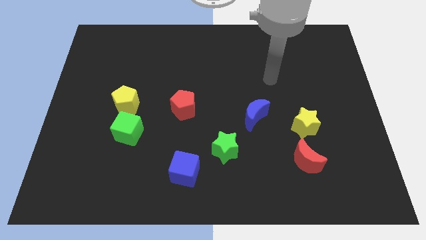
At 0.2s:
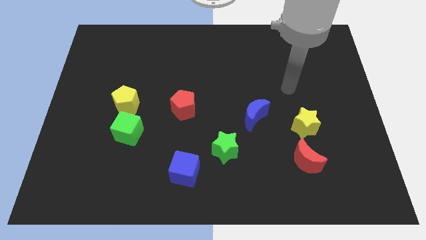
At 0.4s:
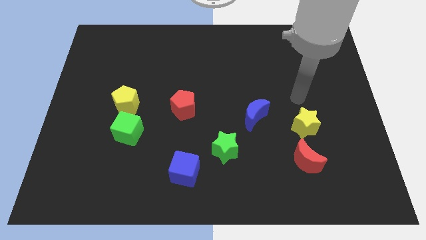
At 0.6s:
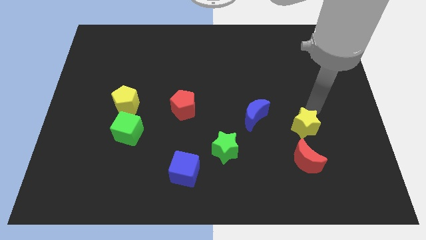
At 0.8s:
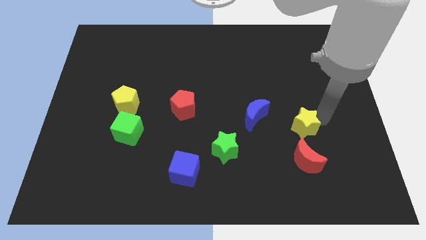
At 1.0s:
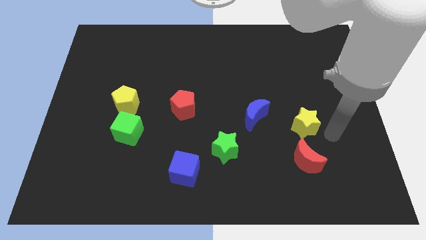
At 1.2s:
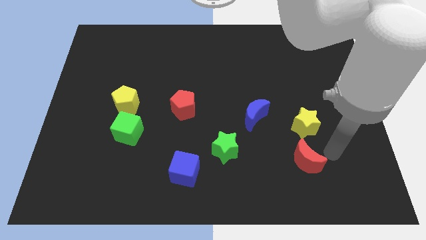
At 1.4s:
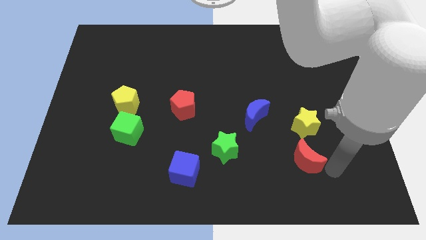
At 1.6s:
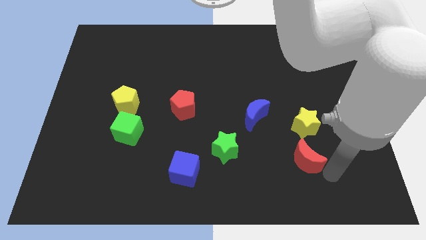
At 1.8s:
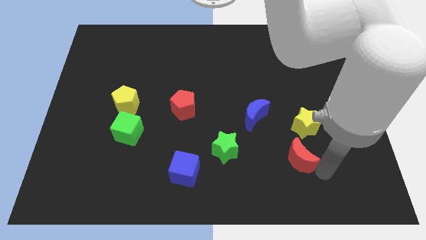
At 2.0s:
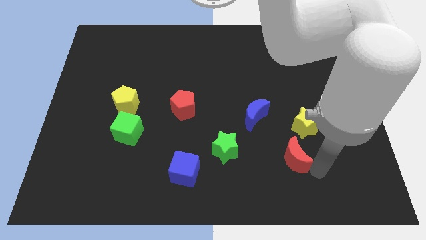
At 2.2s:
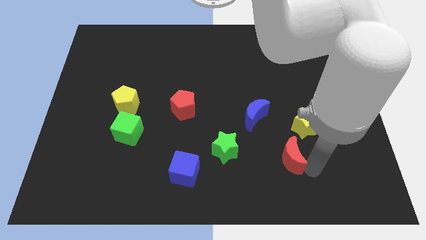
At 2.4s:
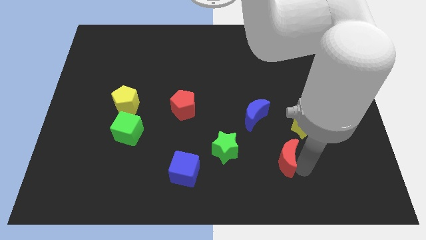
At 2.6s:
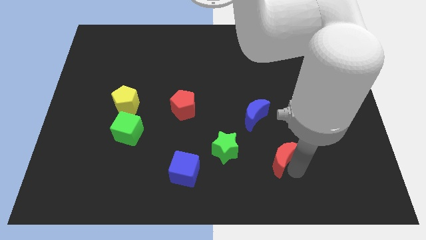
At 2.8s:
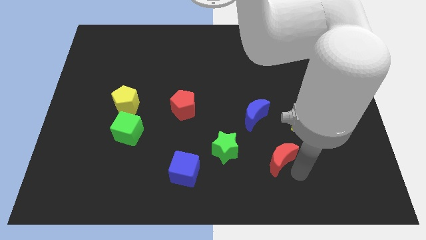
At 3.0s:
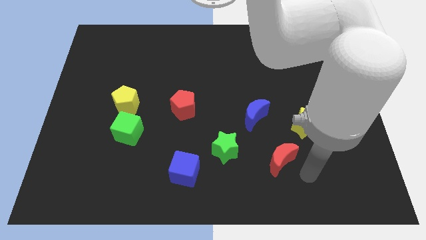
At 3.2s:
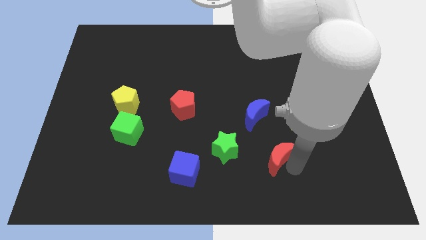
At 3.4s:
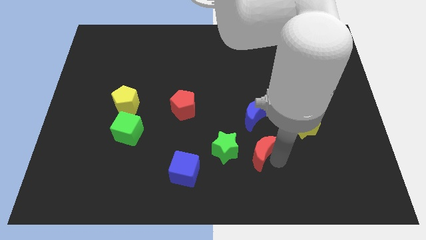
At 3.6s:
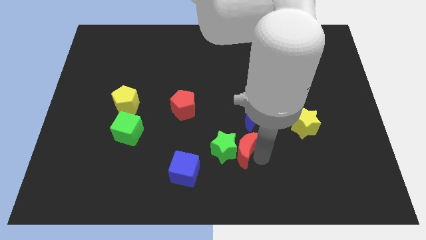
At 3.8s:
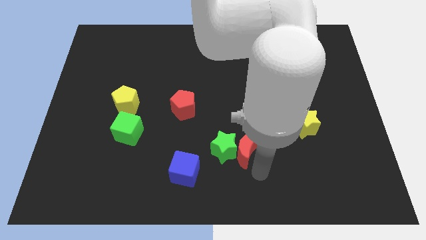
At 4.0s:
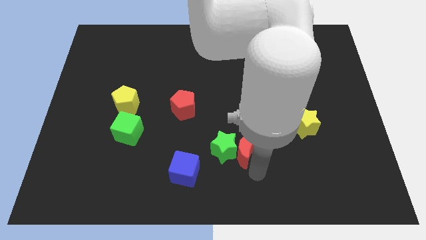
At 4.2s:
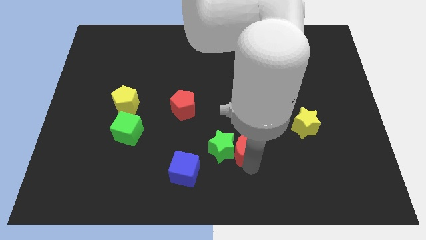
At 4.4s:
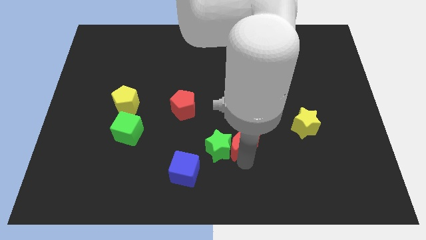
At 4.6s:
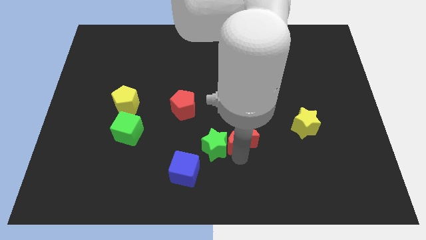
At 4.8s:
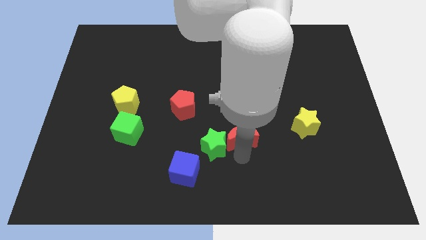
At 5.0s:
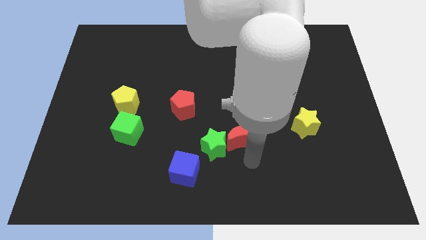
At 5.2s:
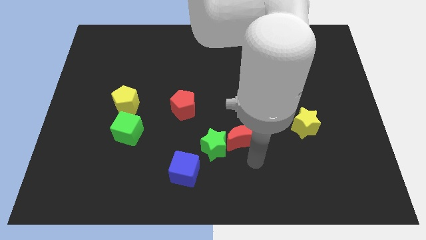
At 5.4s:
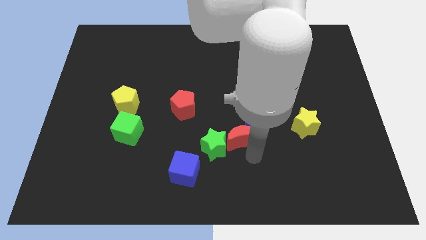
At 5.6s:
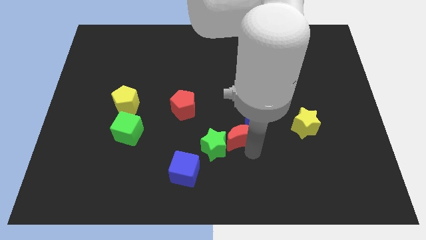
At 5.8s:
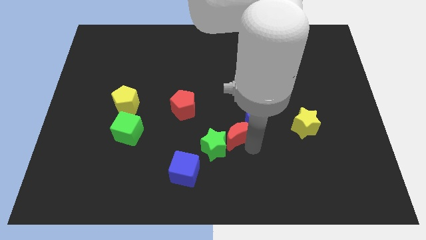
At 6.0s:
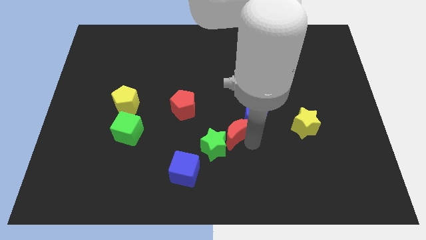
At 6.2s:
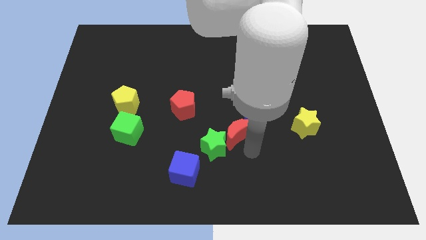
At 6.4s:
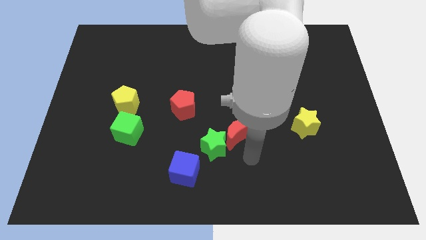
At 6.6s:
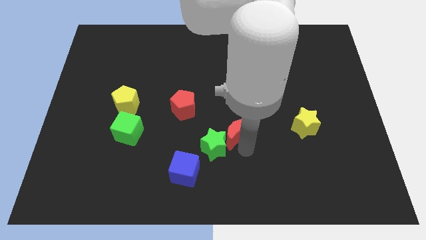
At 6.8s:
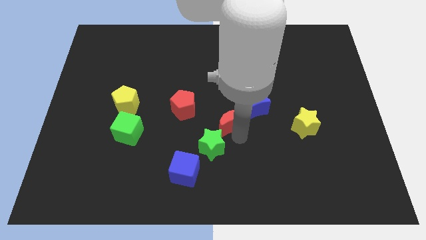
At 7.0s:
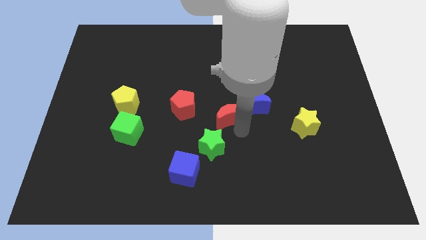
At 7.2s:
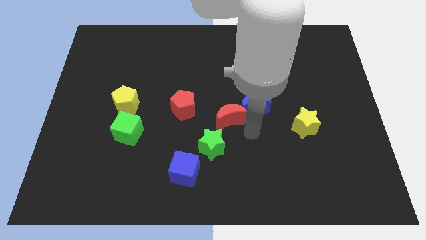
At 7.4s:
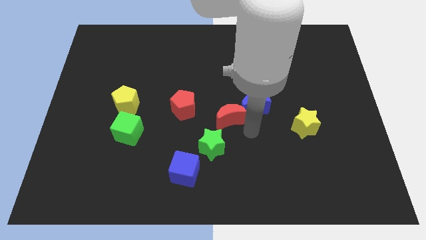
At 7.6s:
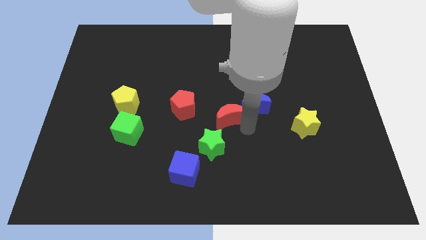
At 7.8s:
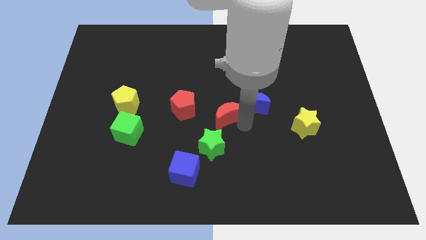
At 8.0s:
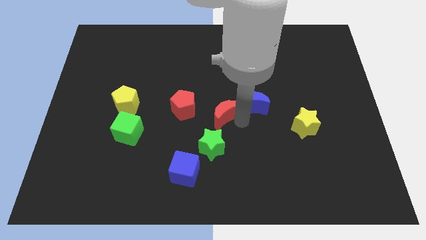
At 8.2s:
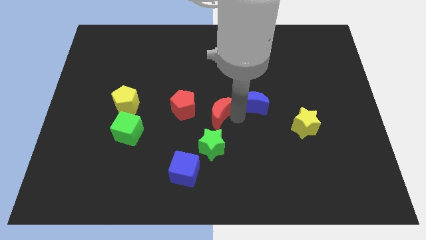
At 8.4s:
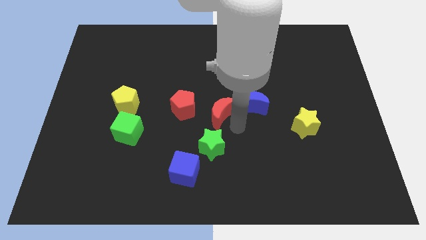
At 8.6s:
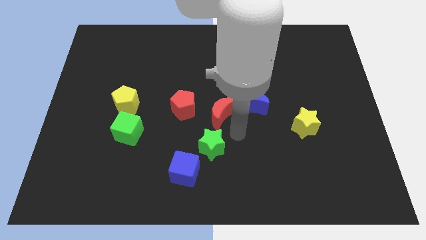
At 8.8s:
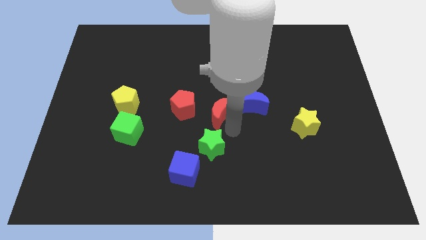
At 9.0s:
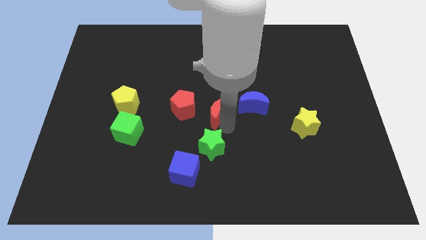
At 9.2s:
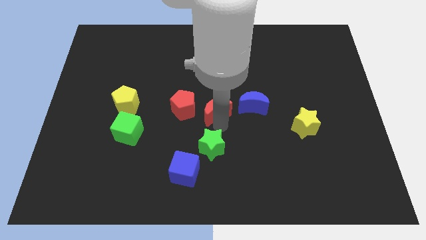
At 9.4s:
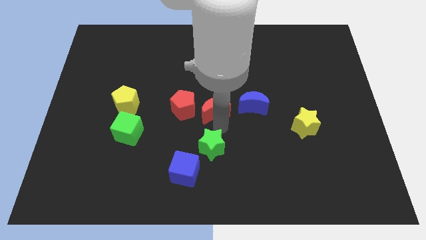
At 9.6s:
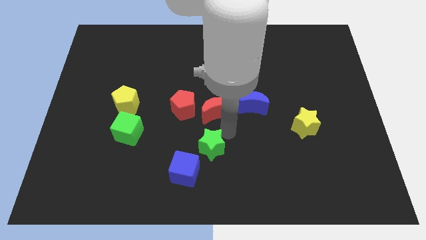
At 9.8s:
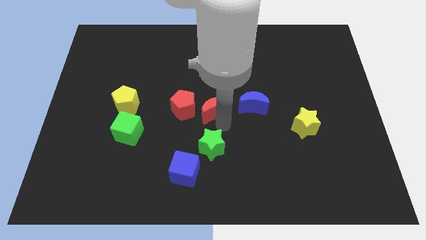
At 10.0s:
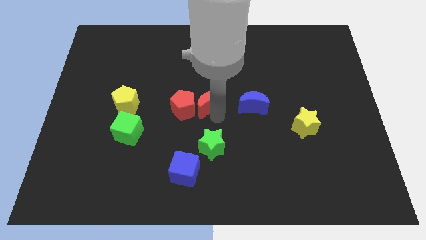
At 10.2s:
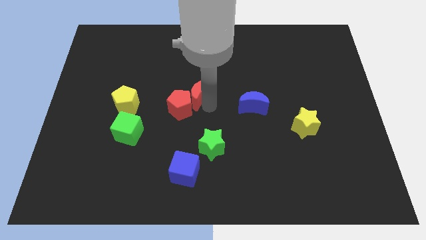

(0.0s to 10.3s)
move the red moon to the top of the red pentagon

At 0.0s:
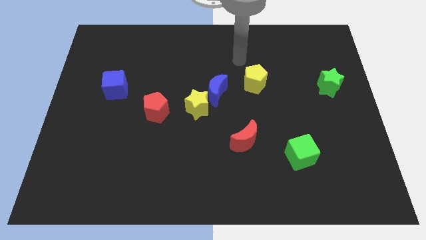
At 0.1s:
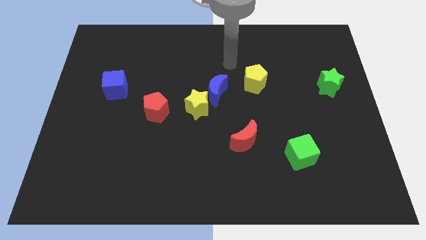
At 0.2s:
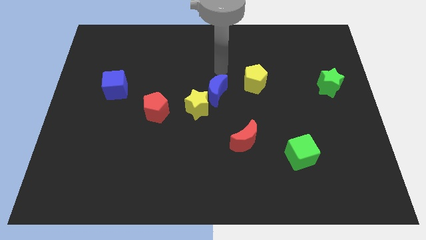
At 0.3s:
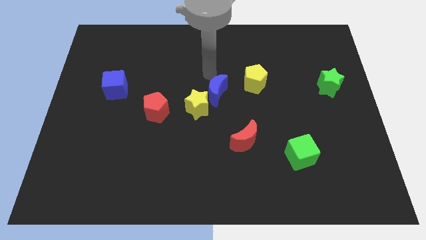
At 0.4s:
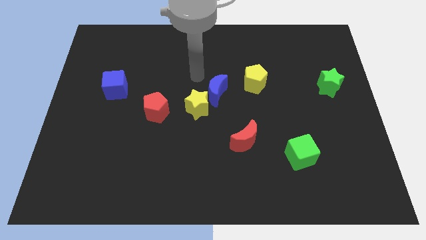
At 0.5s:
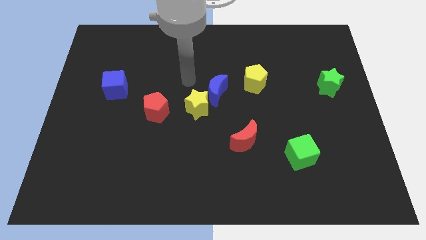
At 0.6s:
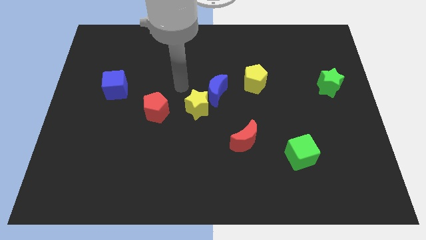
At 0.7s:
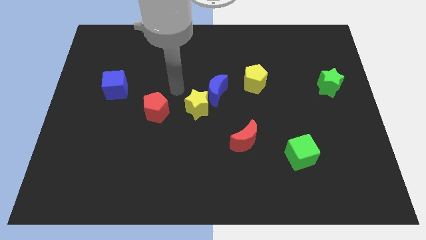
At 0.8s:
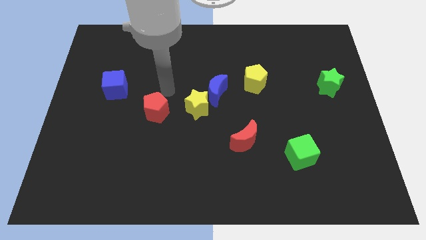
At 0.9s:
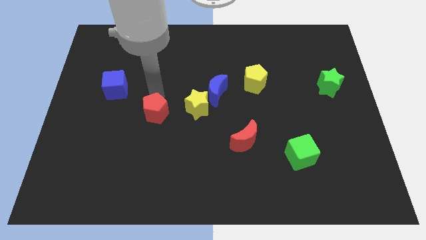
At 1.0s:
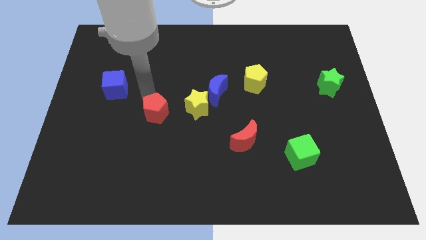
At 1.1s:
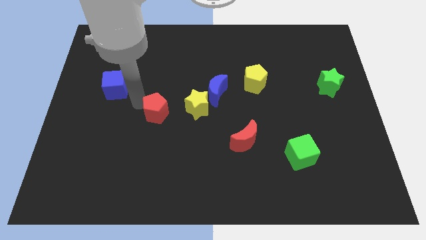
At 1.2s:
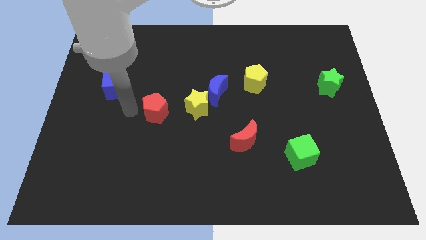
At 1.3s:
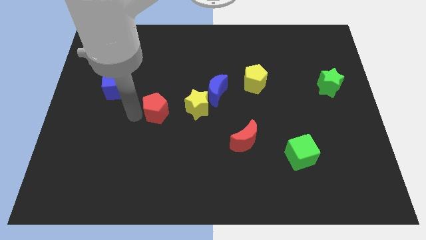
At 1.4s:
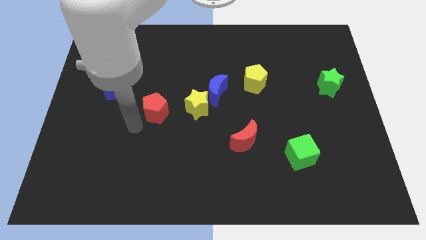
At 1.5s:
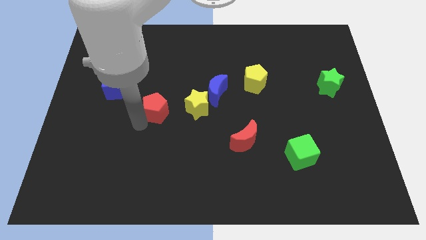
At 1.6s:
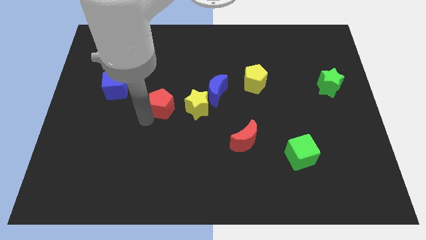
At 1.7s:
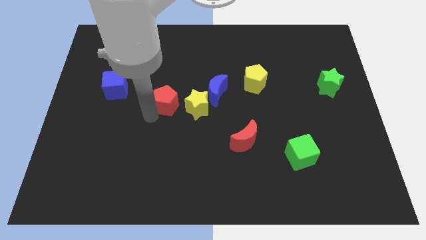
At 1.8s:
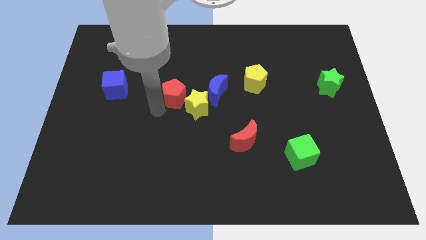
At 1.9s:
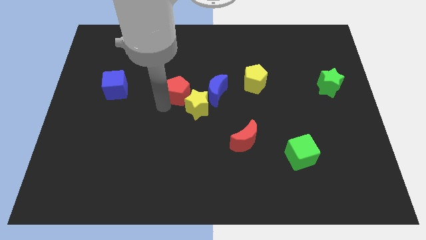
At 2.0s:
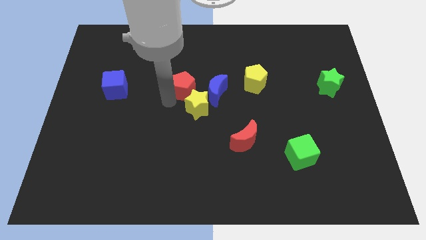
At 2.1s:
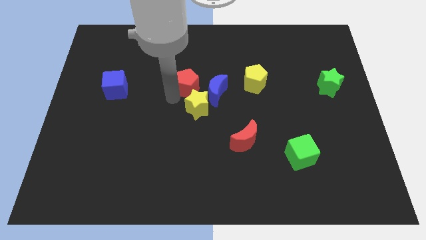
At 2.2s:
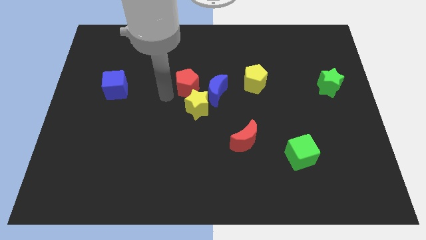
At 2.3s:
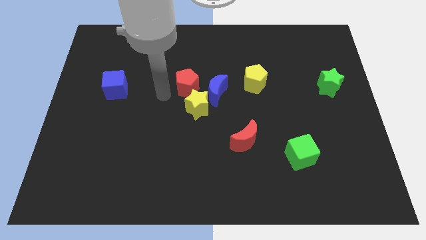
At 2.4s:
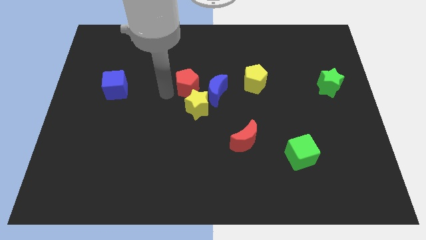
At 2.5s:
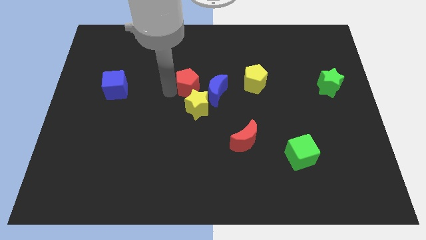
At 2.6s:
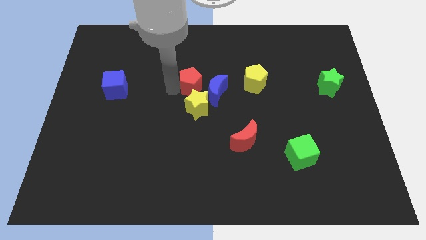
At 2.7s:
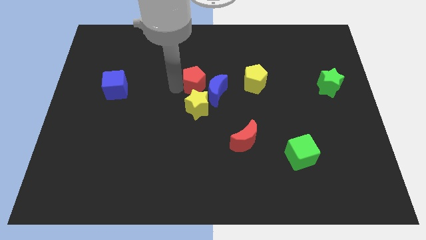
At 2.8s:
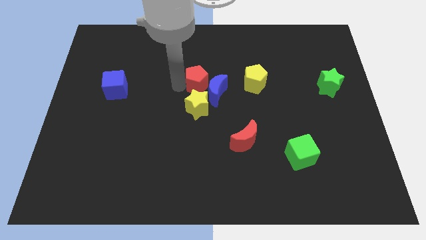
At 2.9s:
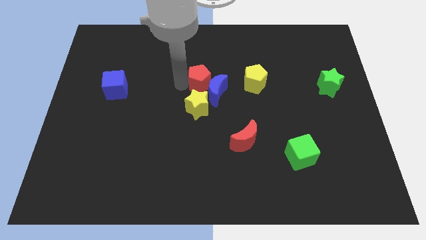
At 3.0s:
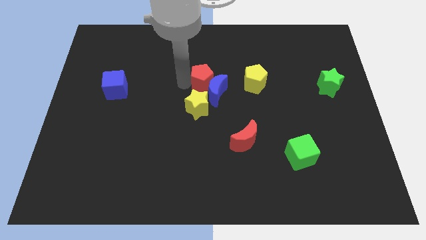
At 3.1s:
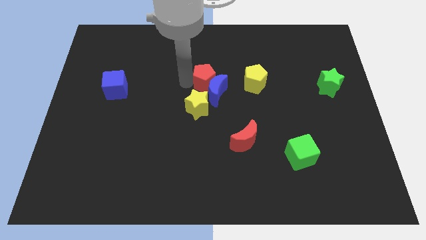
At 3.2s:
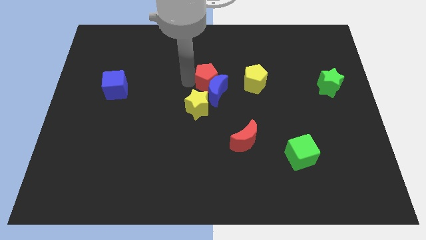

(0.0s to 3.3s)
slide the red pentagon diagonally up and to the right of the blue moon
